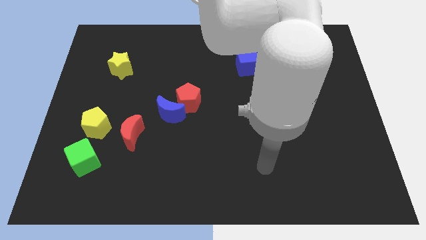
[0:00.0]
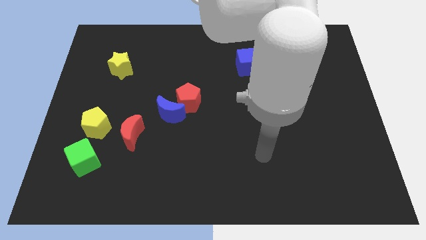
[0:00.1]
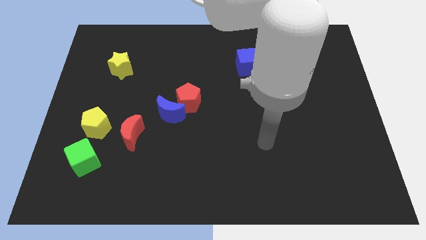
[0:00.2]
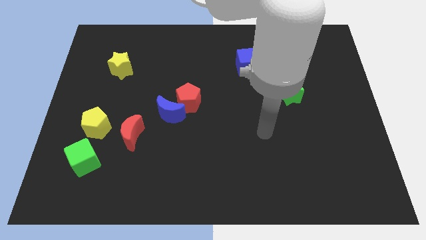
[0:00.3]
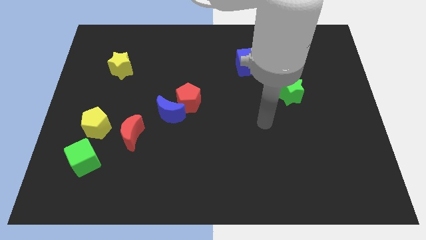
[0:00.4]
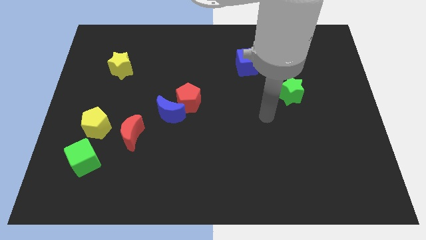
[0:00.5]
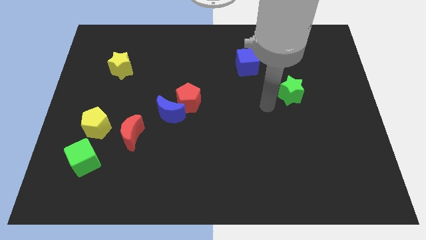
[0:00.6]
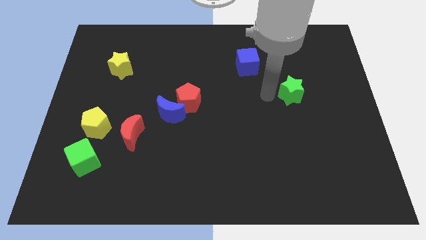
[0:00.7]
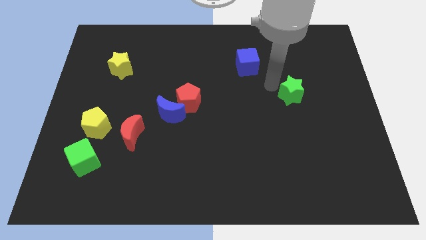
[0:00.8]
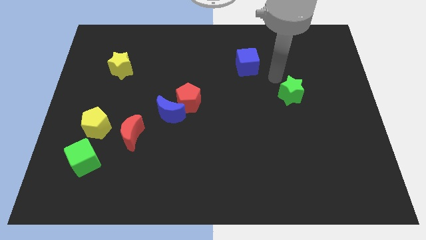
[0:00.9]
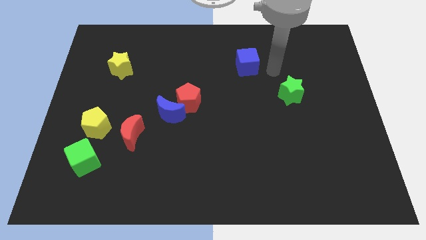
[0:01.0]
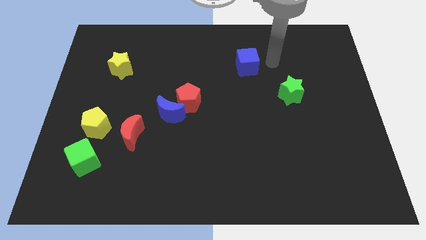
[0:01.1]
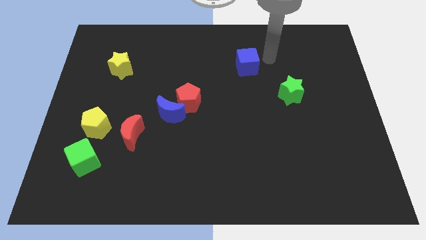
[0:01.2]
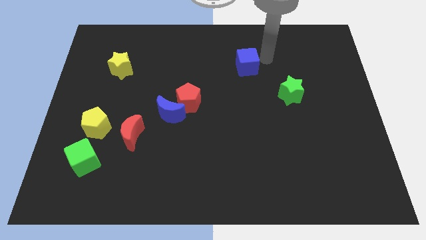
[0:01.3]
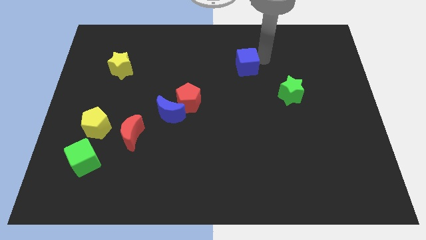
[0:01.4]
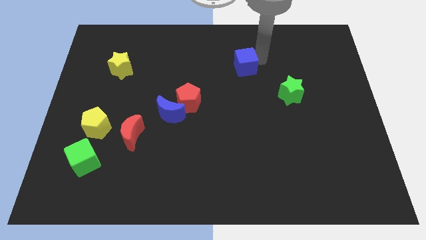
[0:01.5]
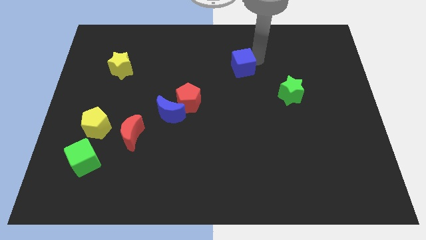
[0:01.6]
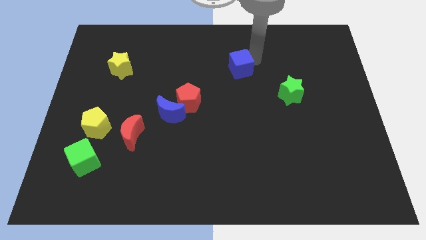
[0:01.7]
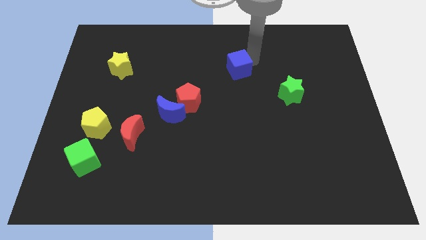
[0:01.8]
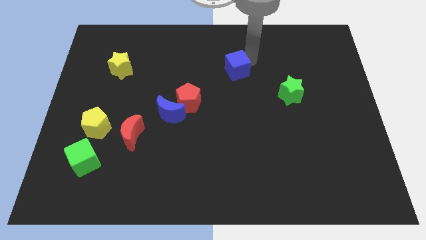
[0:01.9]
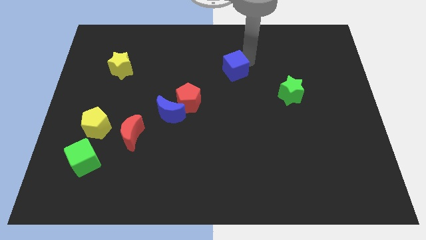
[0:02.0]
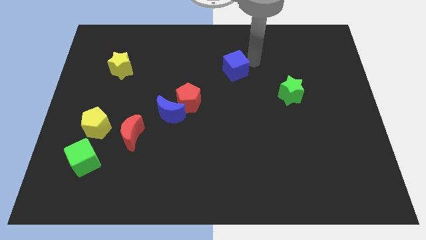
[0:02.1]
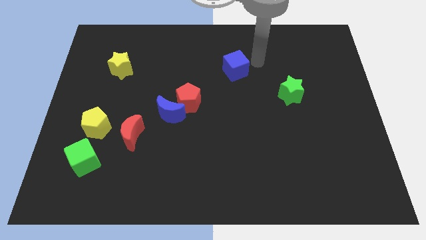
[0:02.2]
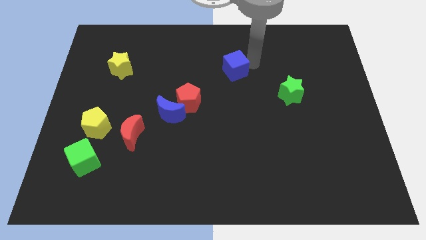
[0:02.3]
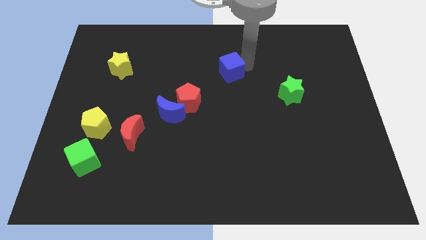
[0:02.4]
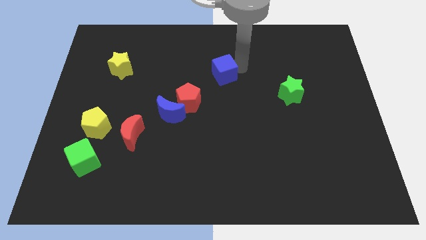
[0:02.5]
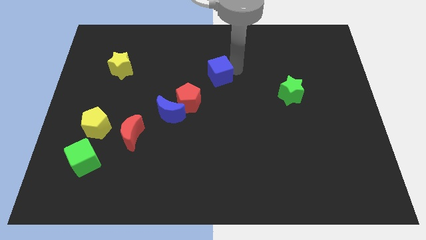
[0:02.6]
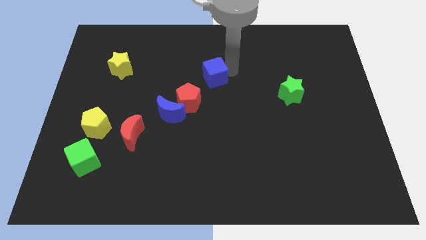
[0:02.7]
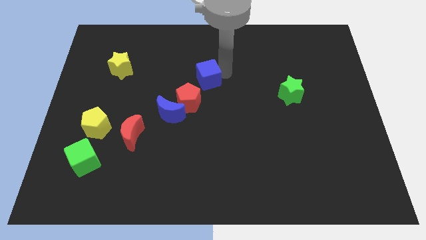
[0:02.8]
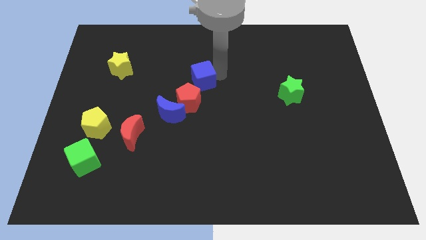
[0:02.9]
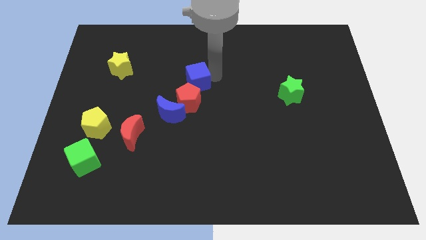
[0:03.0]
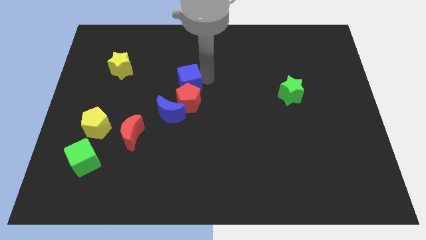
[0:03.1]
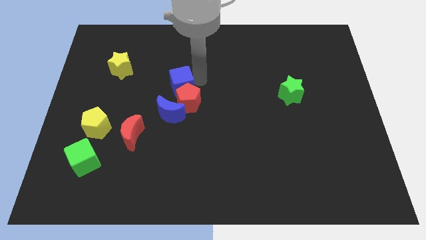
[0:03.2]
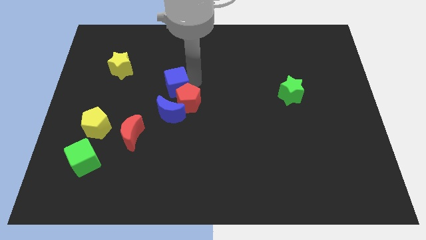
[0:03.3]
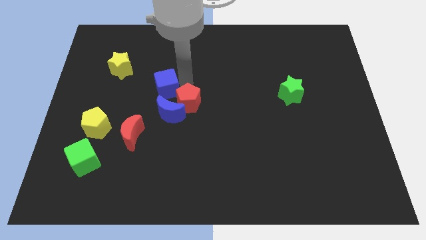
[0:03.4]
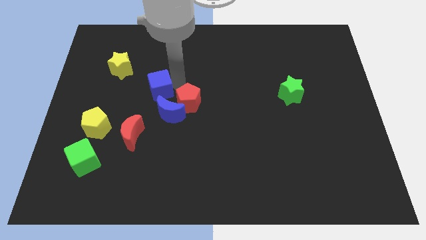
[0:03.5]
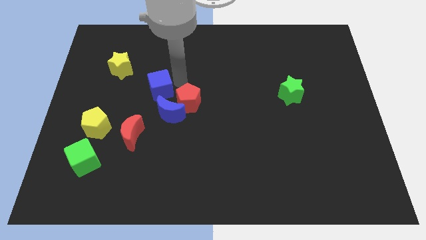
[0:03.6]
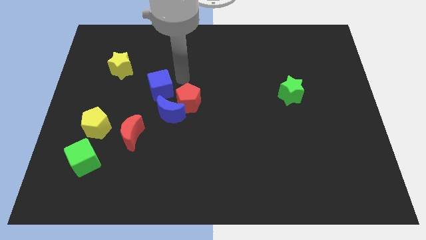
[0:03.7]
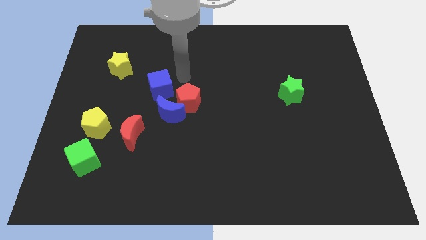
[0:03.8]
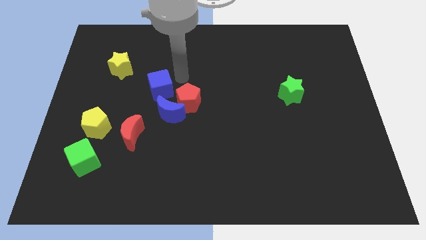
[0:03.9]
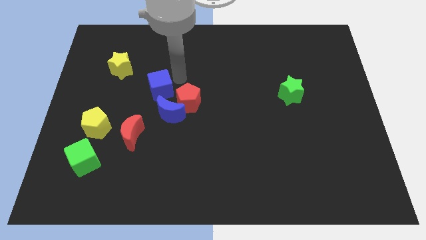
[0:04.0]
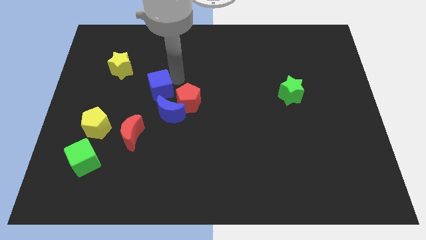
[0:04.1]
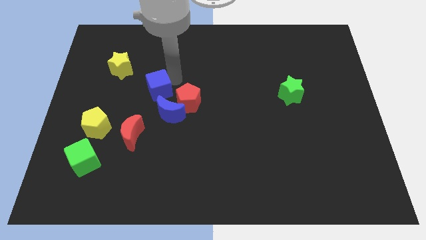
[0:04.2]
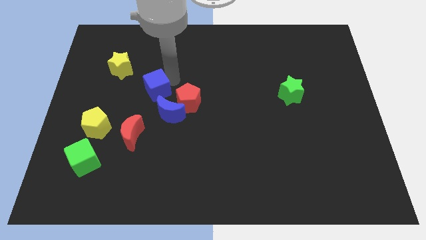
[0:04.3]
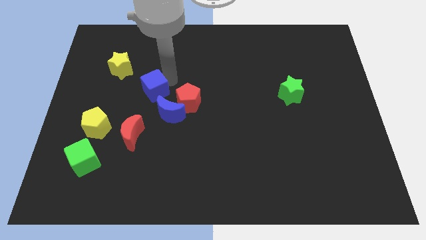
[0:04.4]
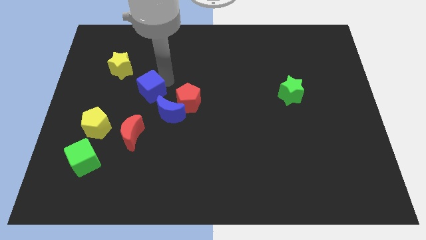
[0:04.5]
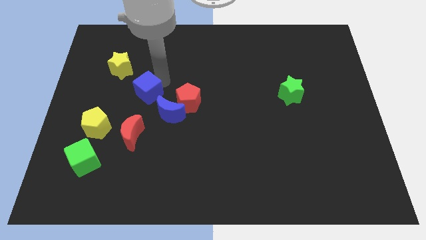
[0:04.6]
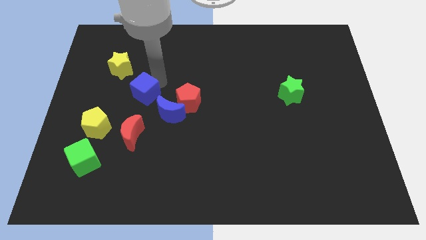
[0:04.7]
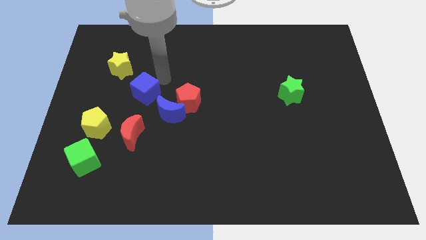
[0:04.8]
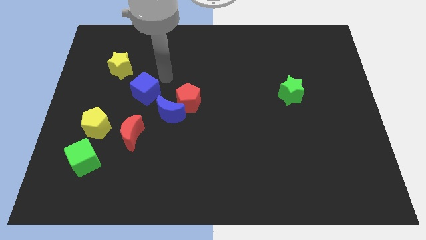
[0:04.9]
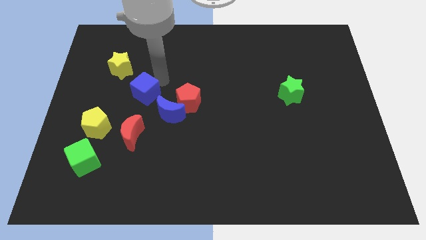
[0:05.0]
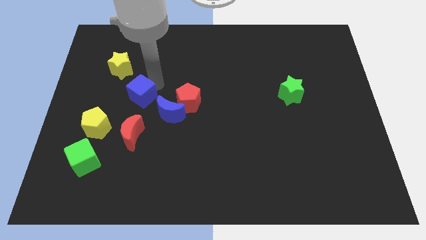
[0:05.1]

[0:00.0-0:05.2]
put the blue cube to the top right of the yellow pentagon

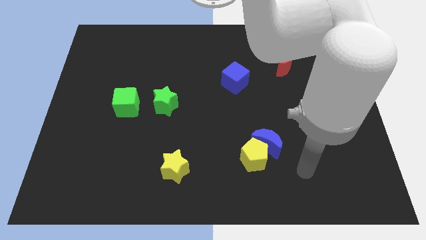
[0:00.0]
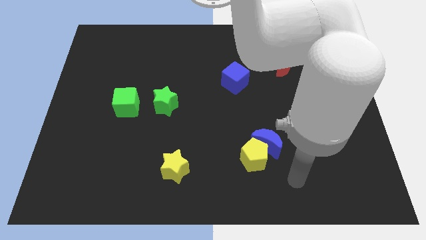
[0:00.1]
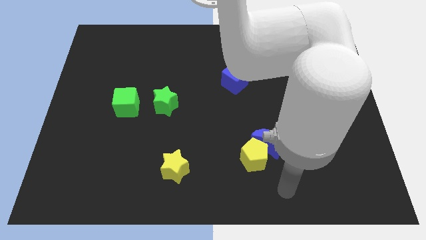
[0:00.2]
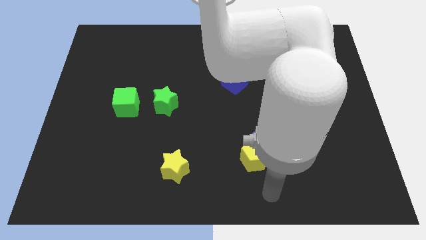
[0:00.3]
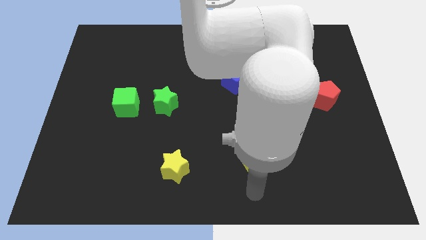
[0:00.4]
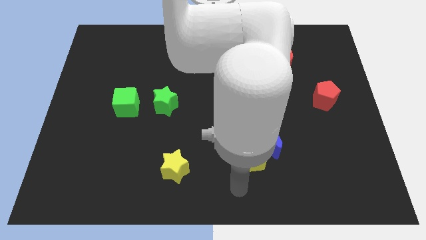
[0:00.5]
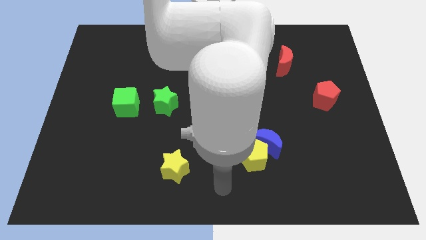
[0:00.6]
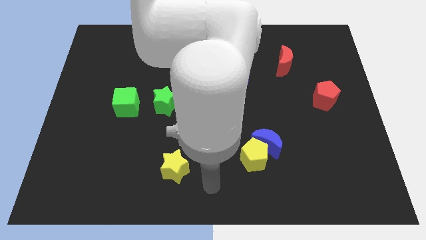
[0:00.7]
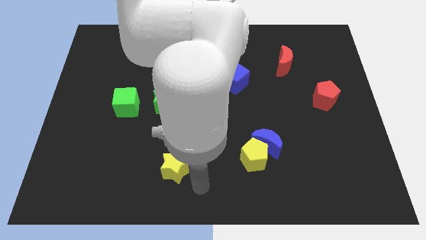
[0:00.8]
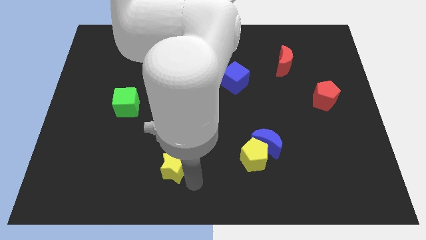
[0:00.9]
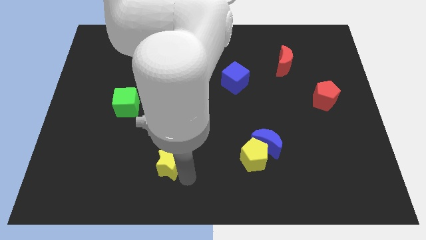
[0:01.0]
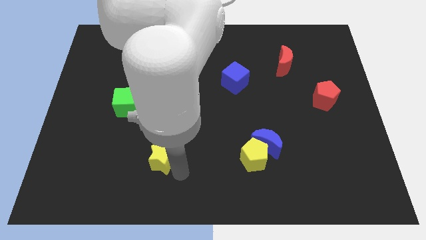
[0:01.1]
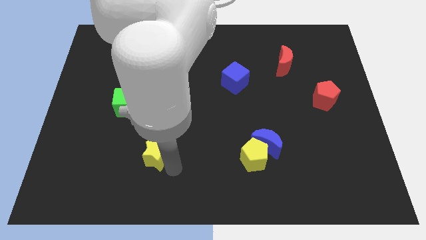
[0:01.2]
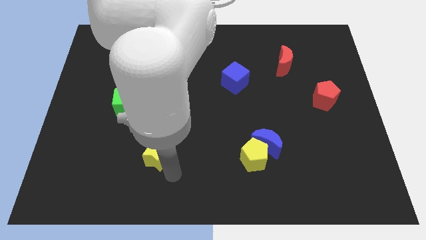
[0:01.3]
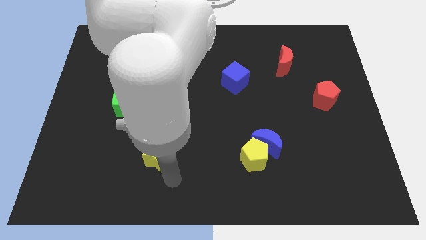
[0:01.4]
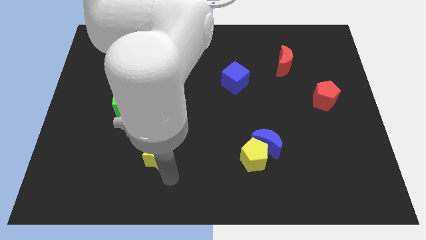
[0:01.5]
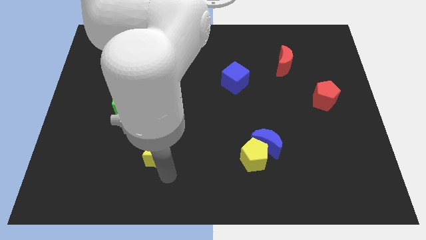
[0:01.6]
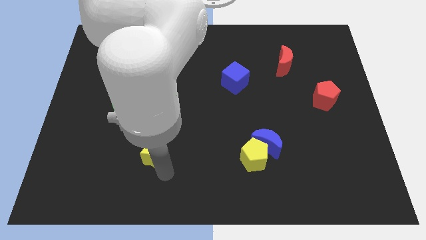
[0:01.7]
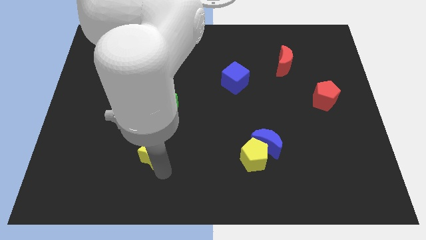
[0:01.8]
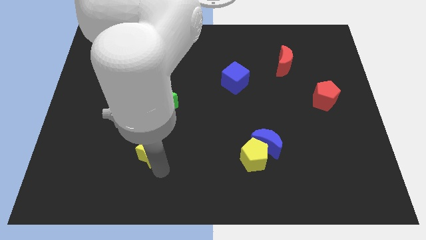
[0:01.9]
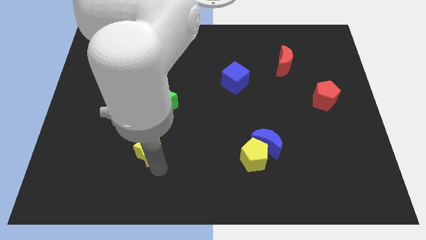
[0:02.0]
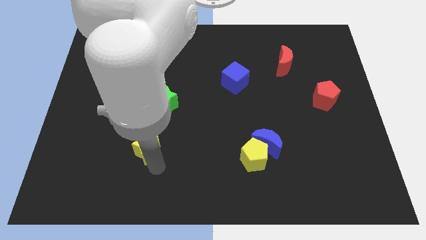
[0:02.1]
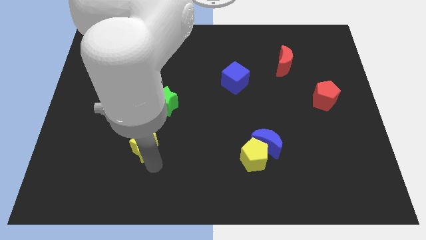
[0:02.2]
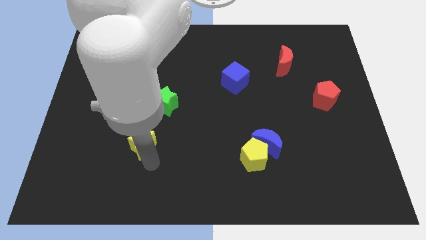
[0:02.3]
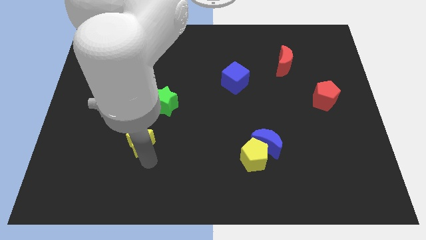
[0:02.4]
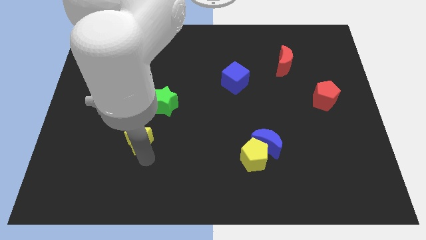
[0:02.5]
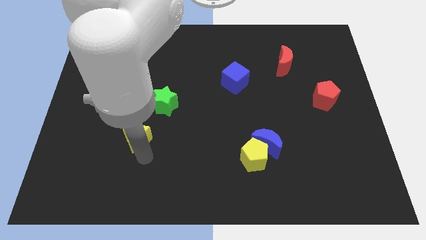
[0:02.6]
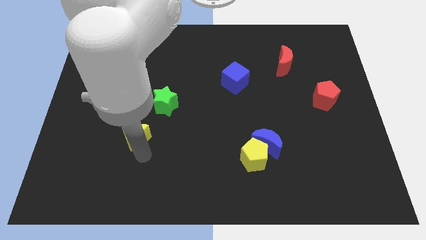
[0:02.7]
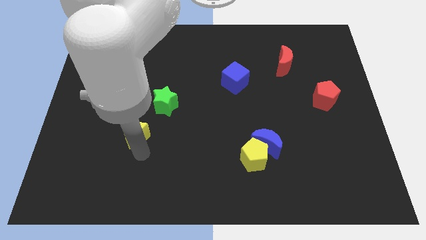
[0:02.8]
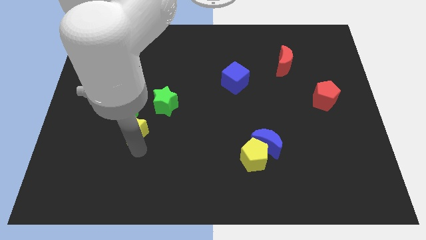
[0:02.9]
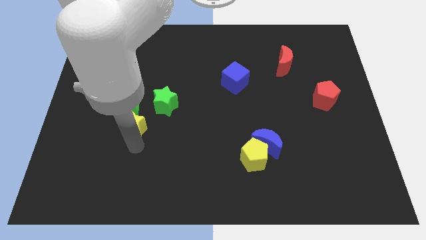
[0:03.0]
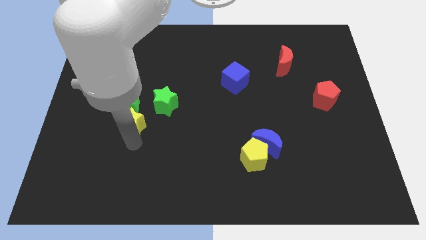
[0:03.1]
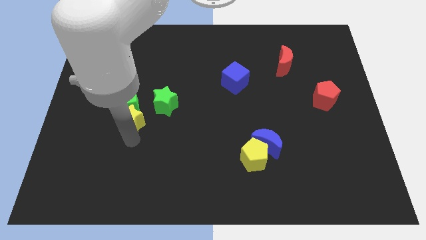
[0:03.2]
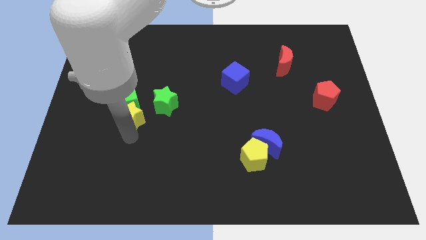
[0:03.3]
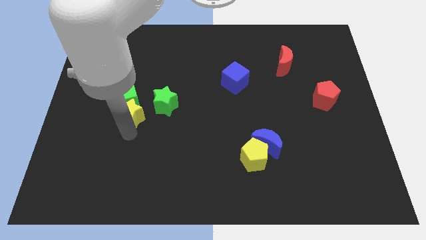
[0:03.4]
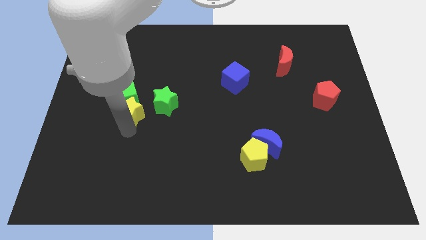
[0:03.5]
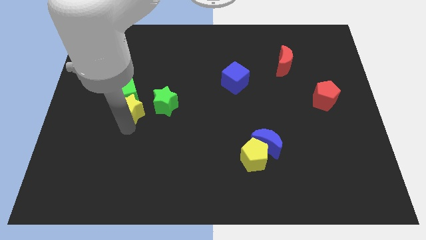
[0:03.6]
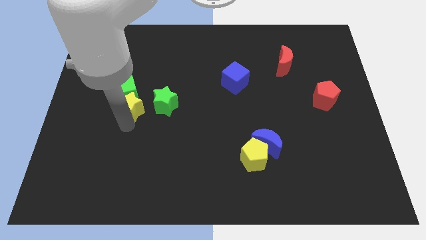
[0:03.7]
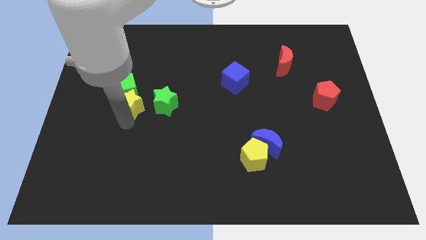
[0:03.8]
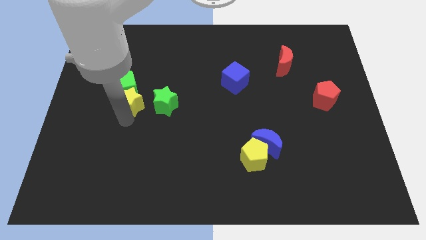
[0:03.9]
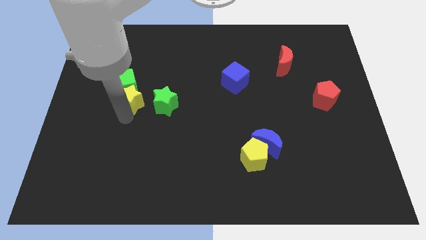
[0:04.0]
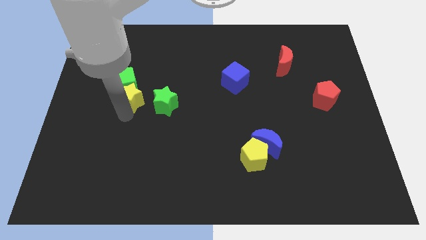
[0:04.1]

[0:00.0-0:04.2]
put the yellow star diagonally up and to the left of the green star
